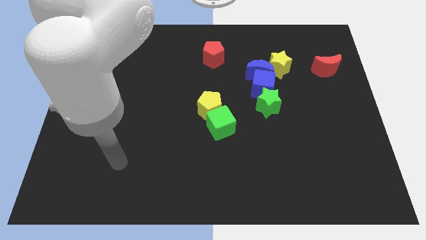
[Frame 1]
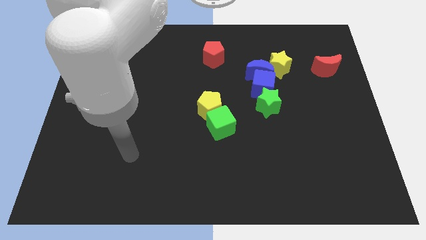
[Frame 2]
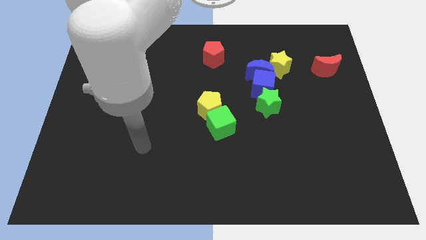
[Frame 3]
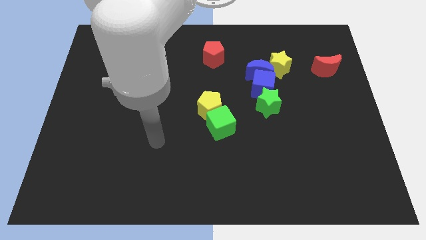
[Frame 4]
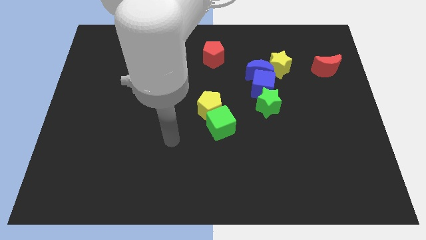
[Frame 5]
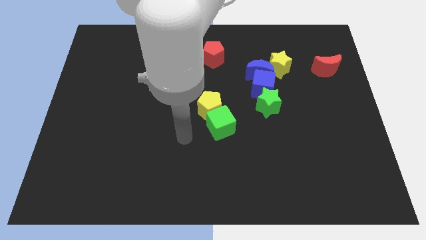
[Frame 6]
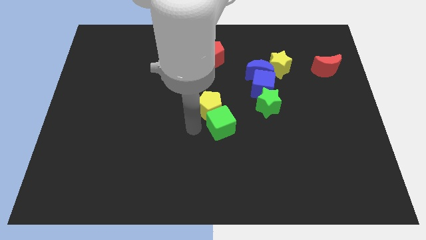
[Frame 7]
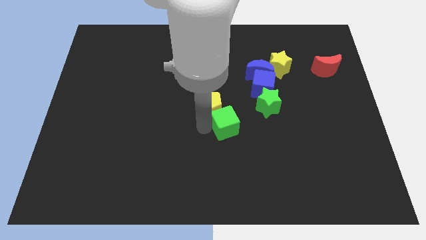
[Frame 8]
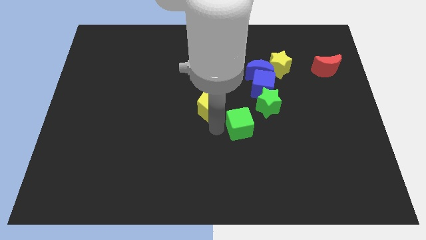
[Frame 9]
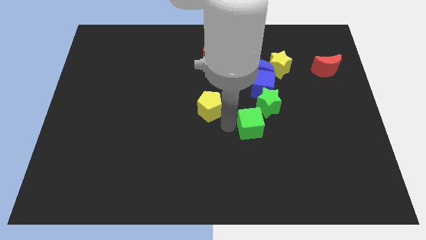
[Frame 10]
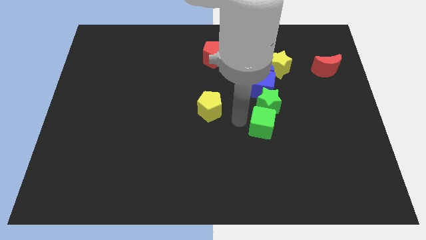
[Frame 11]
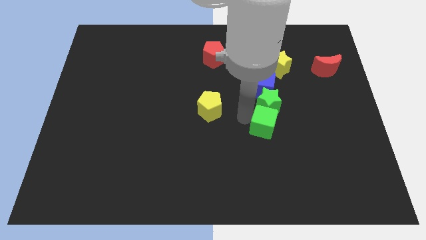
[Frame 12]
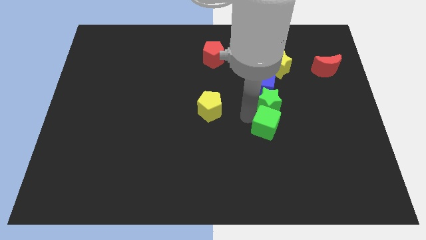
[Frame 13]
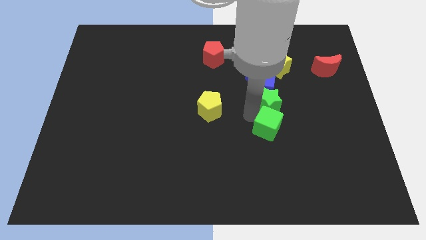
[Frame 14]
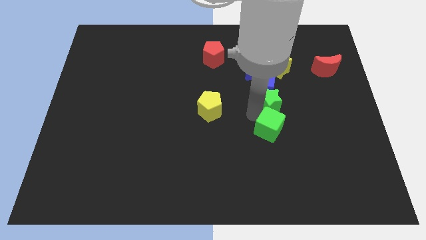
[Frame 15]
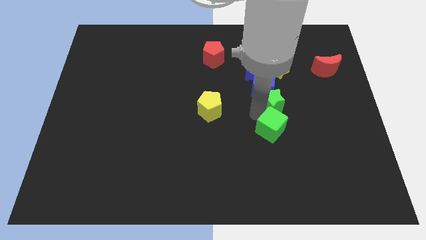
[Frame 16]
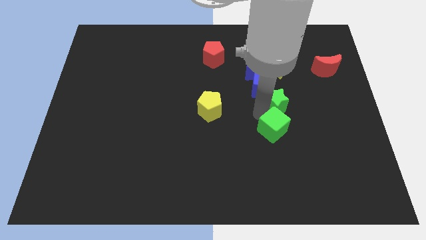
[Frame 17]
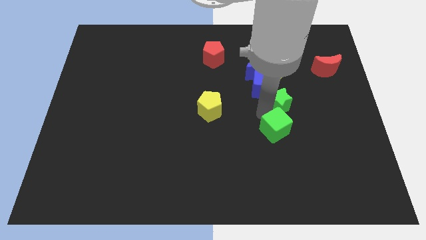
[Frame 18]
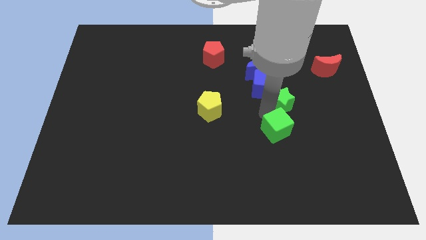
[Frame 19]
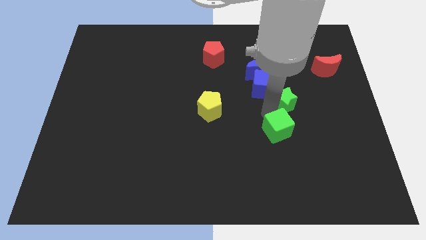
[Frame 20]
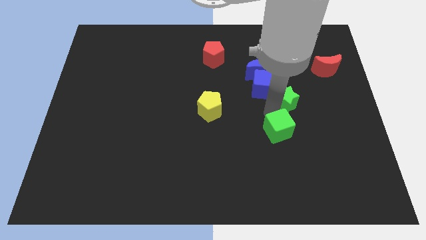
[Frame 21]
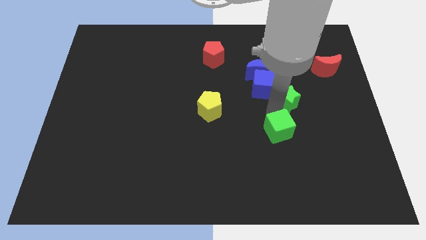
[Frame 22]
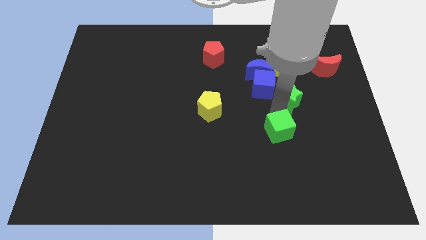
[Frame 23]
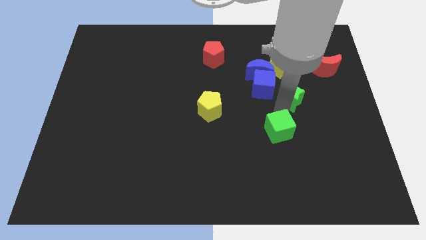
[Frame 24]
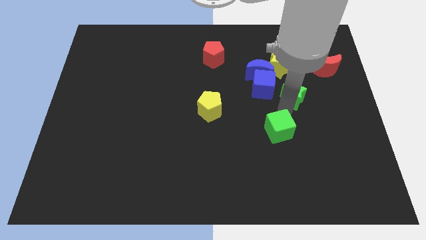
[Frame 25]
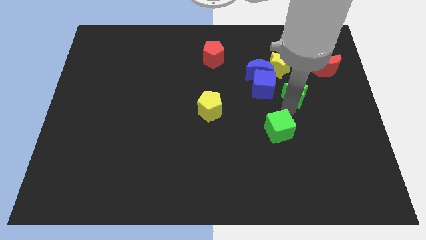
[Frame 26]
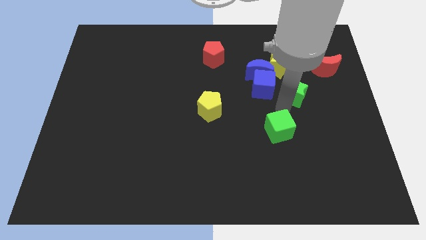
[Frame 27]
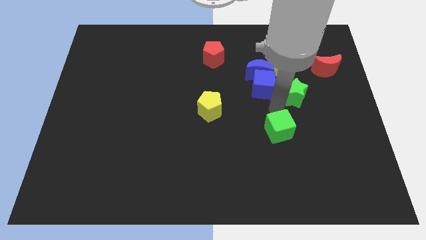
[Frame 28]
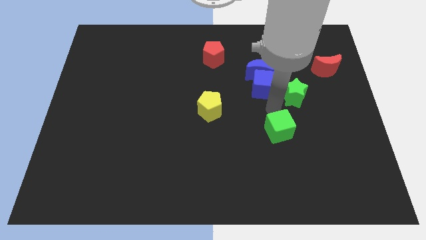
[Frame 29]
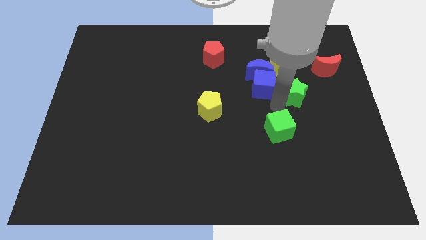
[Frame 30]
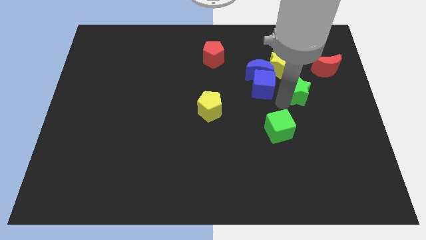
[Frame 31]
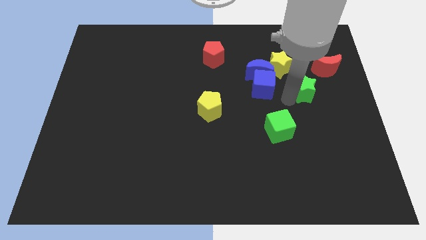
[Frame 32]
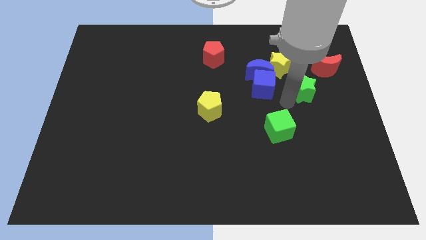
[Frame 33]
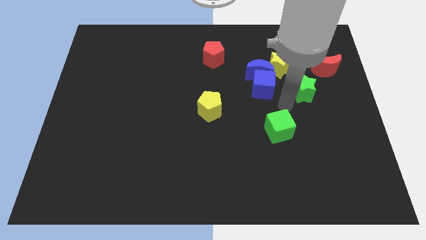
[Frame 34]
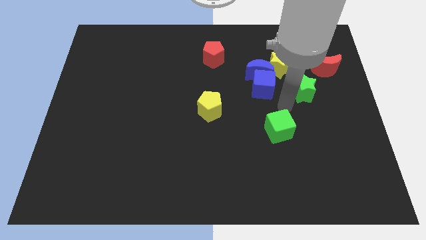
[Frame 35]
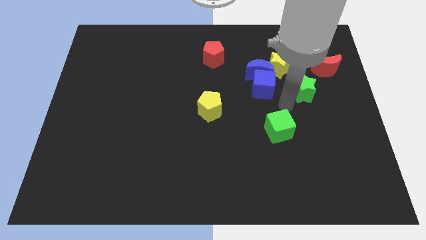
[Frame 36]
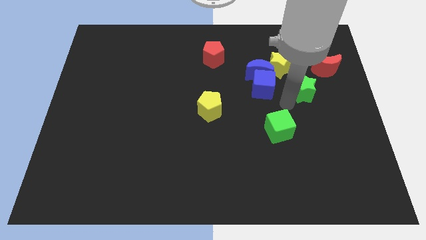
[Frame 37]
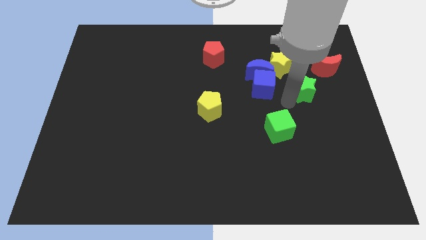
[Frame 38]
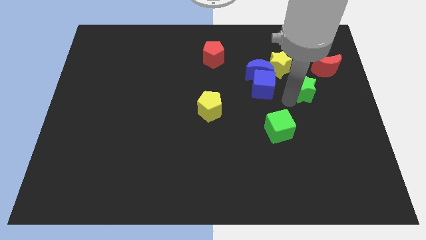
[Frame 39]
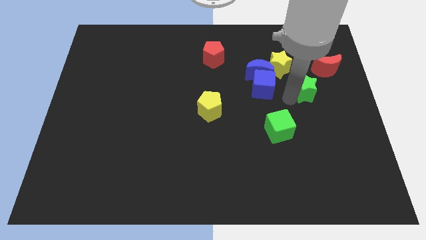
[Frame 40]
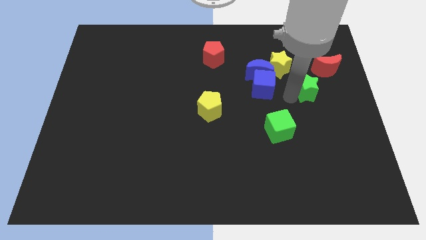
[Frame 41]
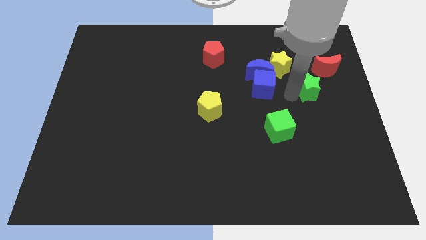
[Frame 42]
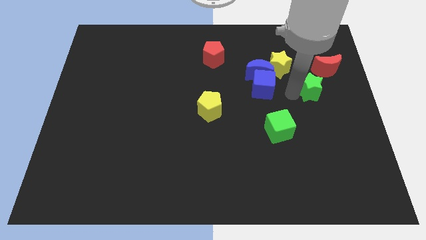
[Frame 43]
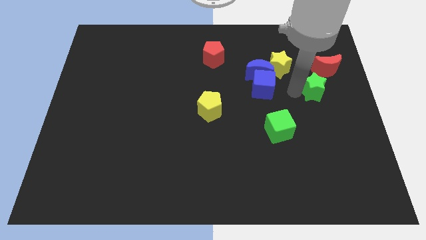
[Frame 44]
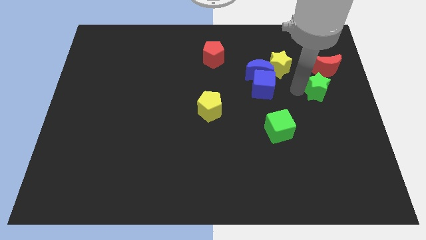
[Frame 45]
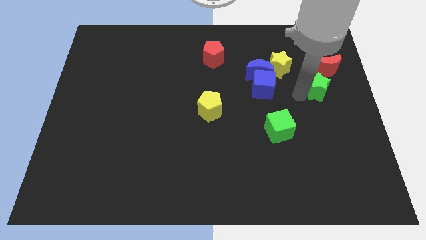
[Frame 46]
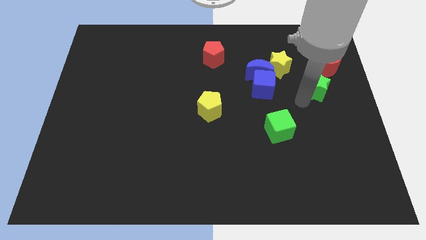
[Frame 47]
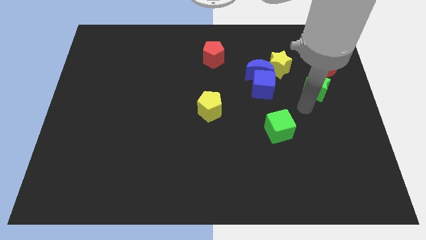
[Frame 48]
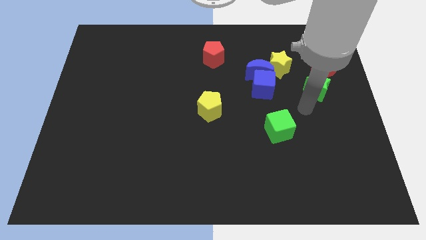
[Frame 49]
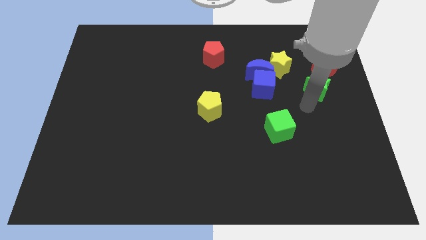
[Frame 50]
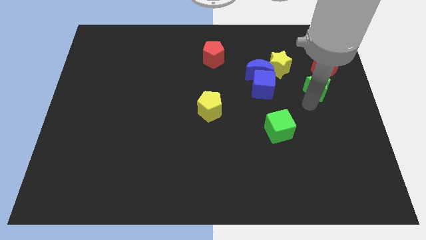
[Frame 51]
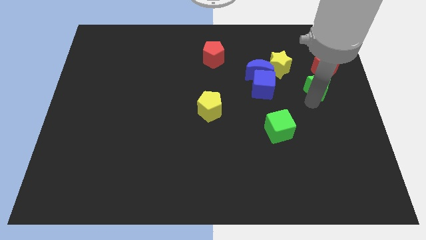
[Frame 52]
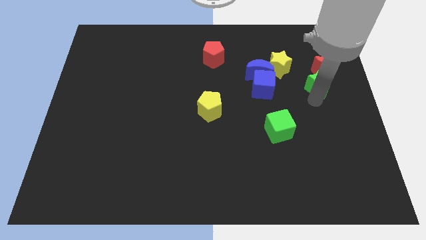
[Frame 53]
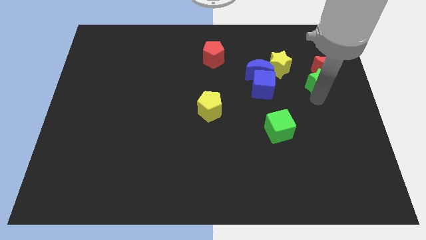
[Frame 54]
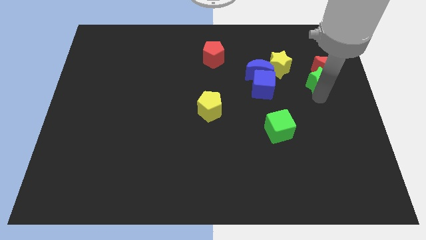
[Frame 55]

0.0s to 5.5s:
push the green star next to the red moon

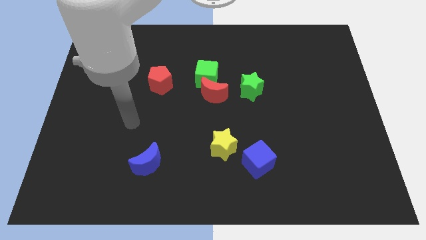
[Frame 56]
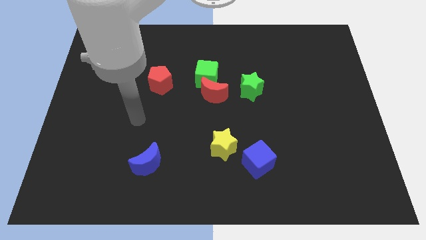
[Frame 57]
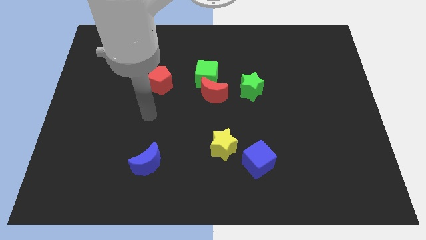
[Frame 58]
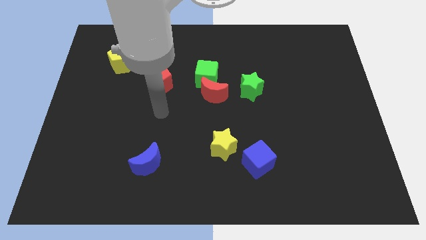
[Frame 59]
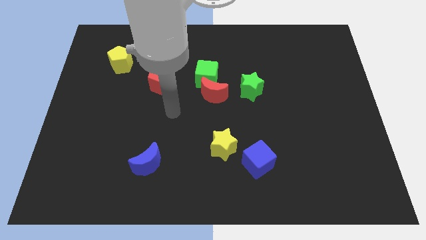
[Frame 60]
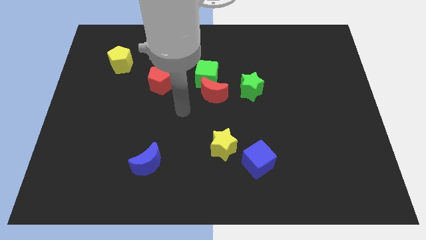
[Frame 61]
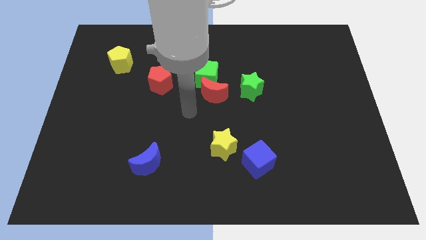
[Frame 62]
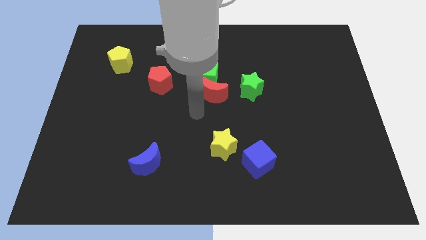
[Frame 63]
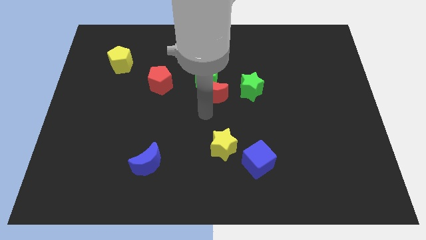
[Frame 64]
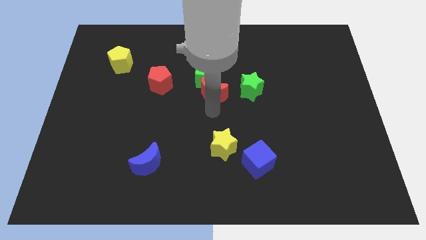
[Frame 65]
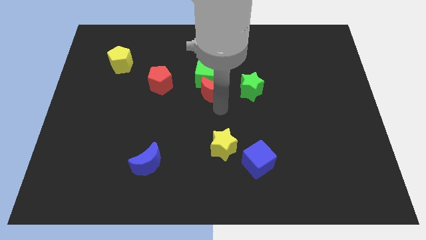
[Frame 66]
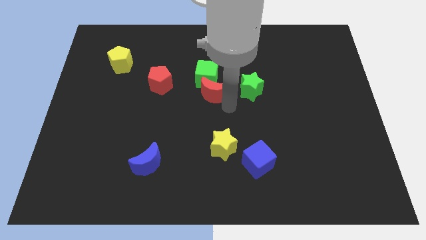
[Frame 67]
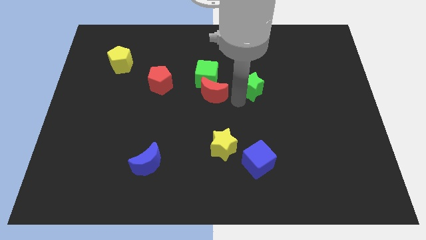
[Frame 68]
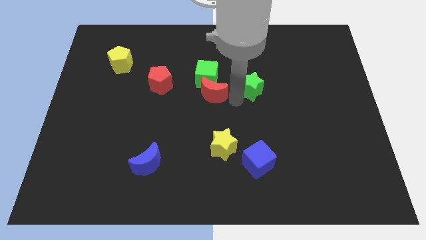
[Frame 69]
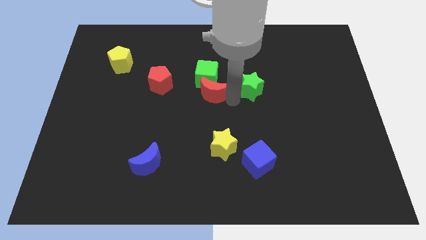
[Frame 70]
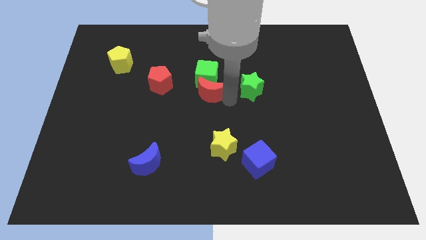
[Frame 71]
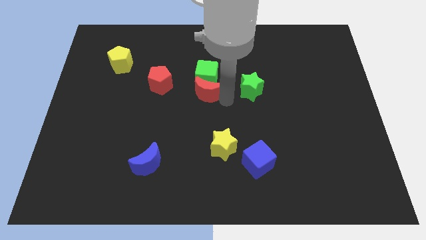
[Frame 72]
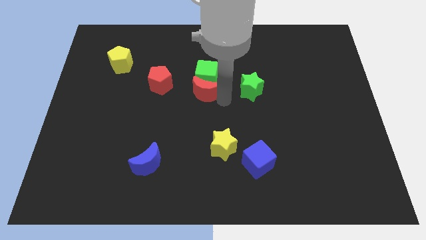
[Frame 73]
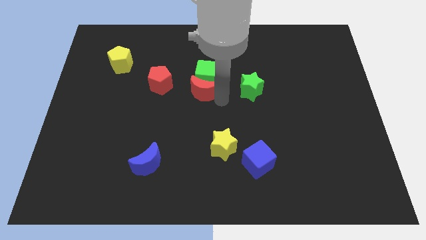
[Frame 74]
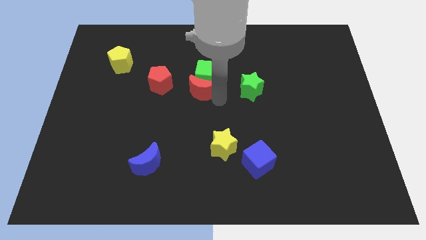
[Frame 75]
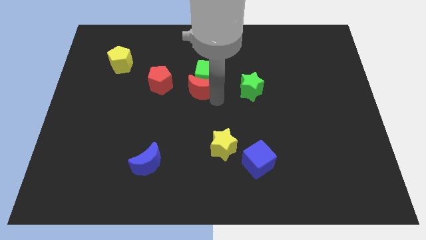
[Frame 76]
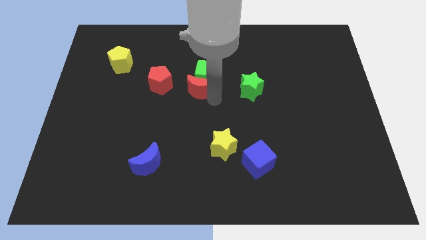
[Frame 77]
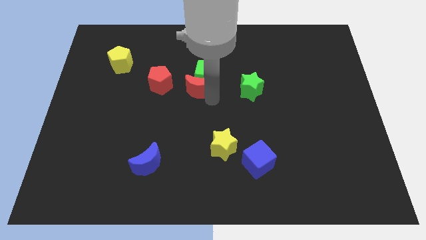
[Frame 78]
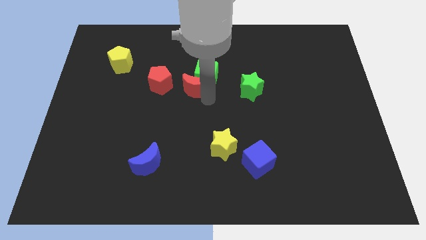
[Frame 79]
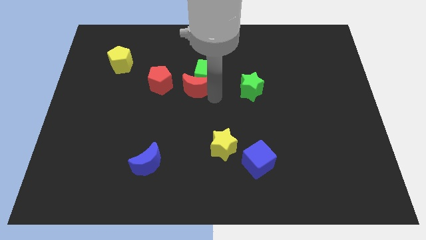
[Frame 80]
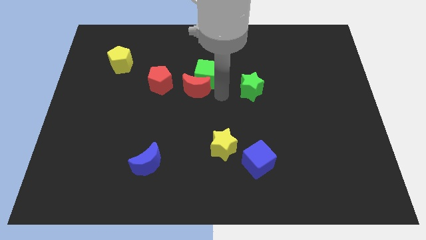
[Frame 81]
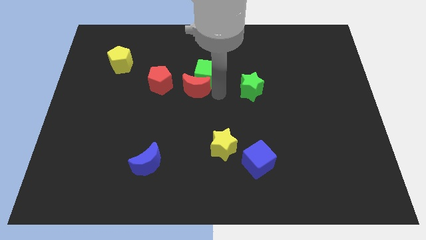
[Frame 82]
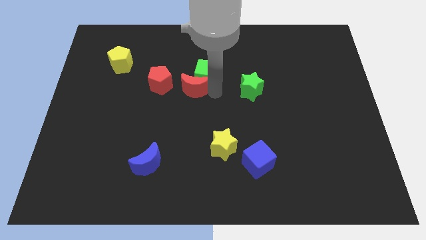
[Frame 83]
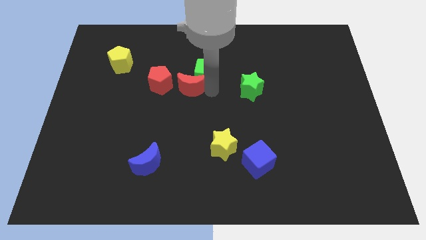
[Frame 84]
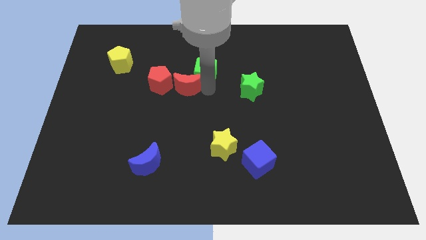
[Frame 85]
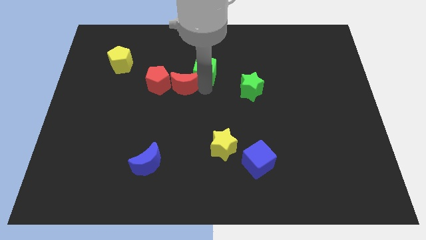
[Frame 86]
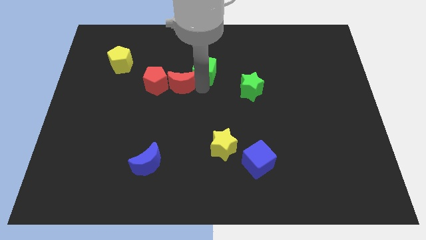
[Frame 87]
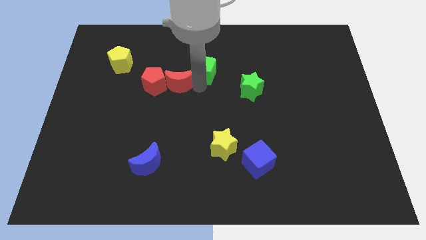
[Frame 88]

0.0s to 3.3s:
move the red moon towards the red pentagon
